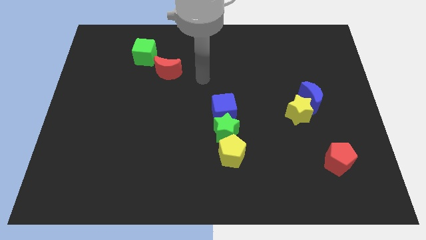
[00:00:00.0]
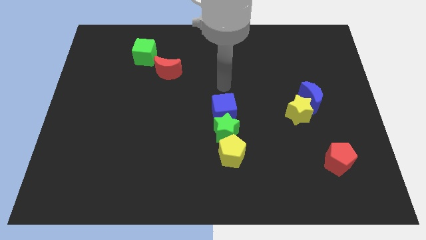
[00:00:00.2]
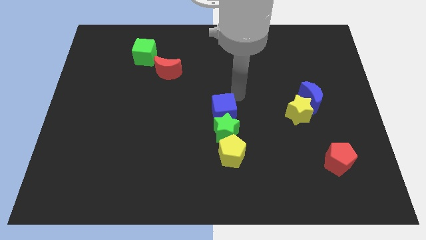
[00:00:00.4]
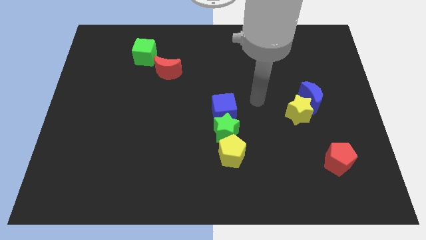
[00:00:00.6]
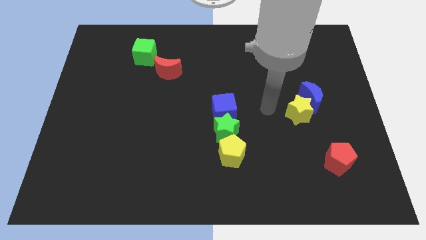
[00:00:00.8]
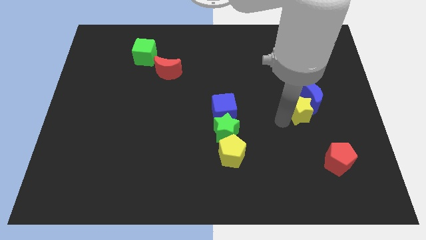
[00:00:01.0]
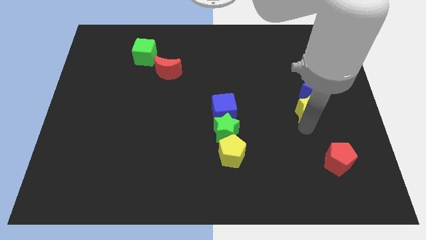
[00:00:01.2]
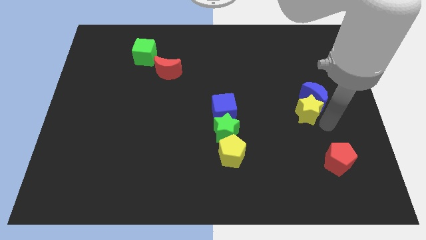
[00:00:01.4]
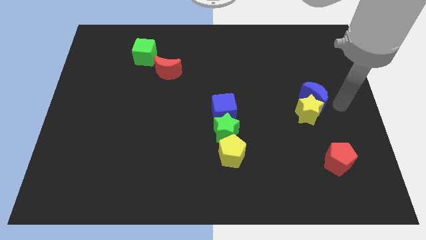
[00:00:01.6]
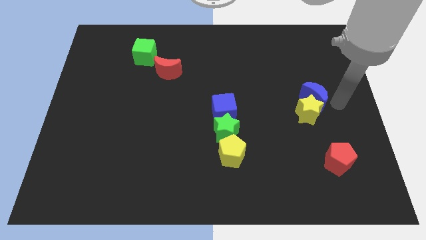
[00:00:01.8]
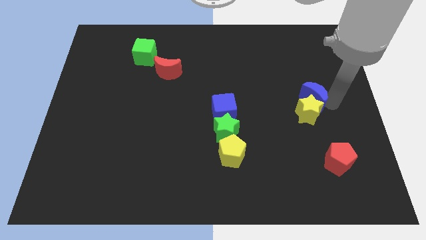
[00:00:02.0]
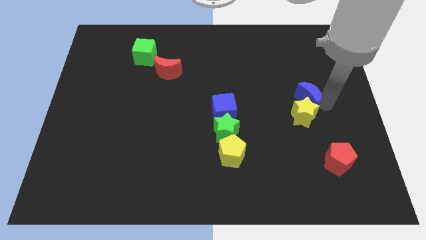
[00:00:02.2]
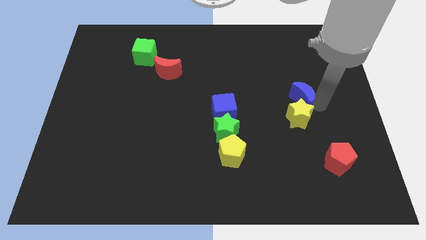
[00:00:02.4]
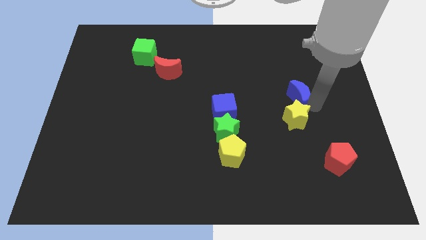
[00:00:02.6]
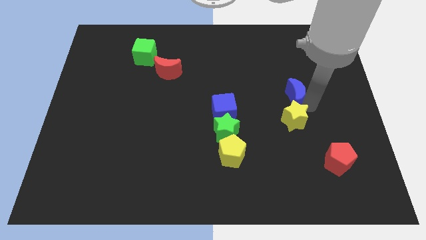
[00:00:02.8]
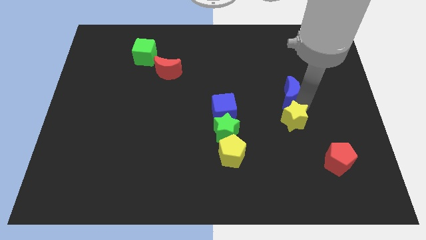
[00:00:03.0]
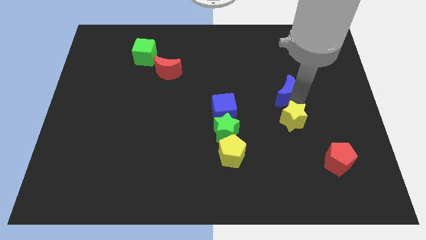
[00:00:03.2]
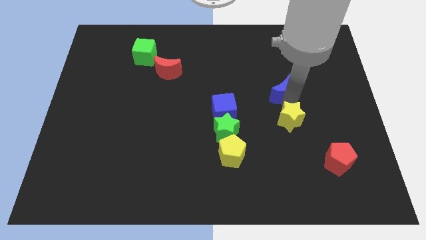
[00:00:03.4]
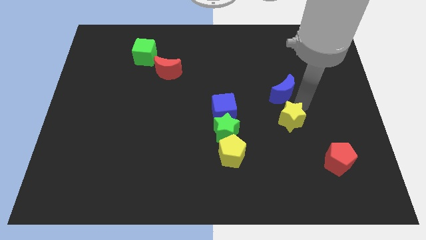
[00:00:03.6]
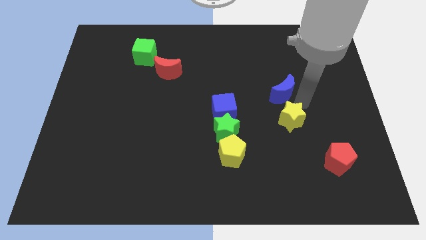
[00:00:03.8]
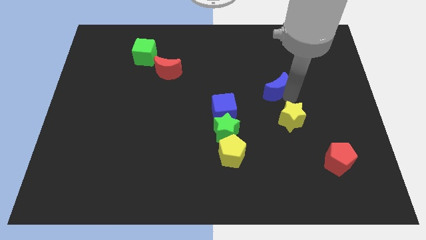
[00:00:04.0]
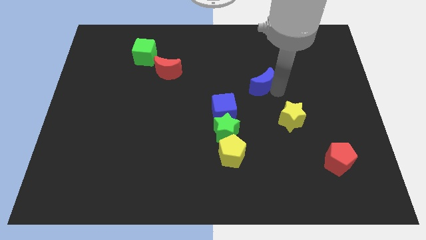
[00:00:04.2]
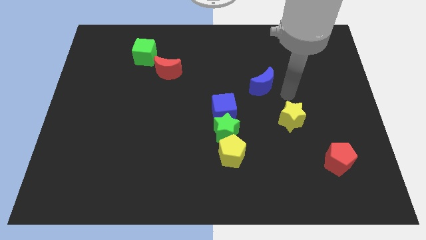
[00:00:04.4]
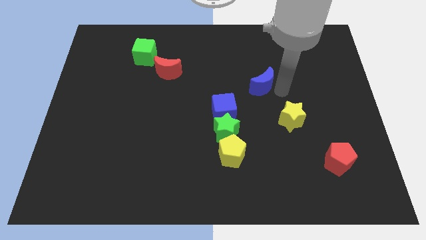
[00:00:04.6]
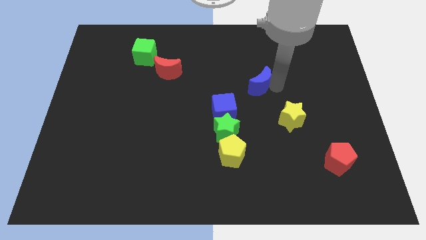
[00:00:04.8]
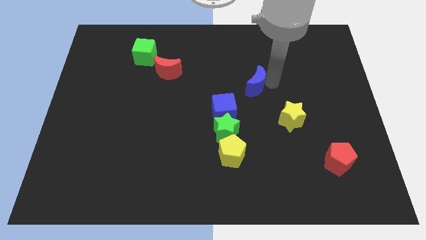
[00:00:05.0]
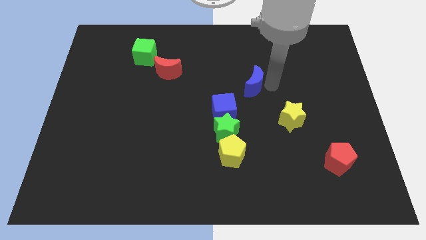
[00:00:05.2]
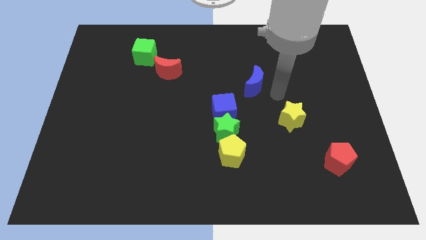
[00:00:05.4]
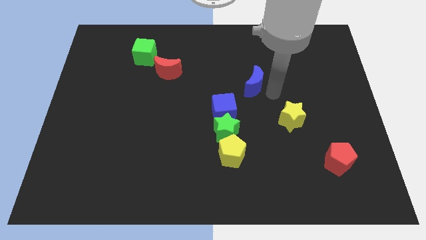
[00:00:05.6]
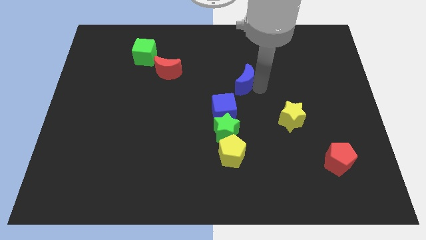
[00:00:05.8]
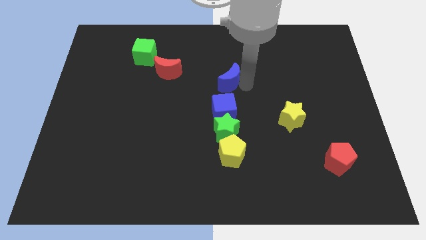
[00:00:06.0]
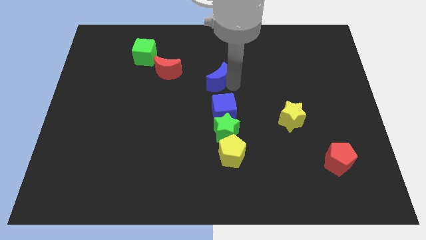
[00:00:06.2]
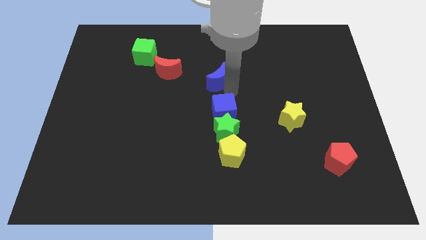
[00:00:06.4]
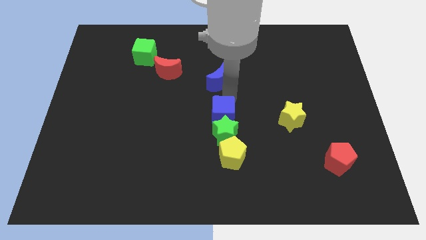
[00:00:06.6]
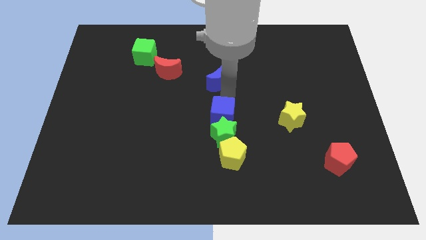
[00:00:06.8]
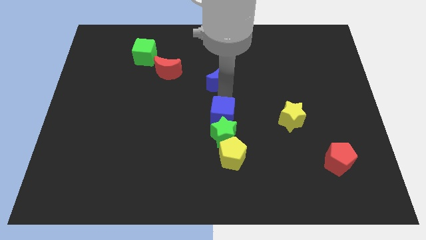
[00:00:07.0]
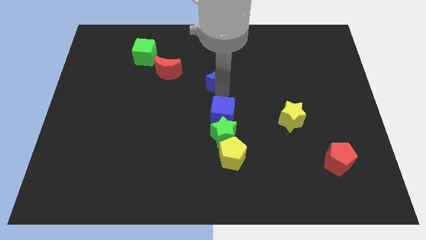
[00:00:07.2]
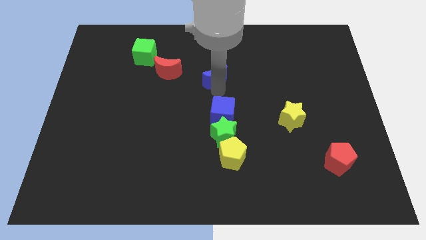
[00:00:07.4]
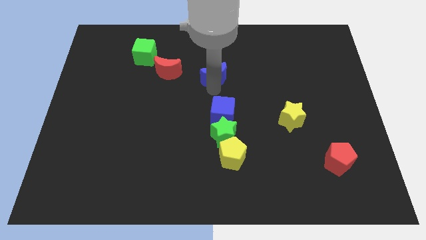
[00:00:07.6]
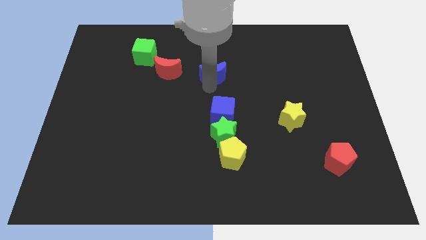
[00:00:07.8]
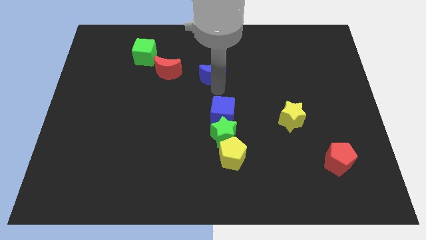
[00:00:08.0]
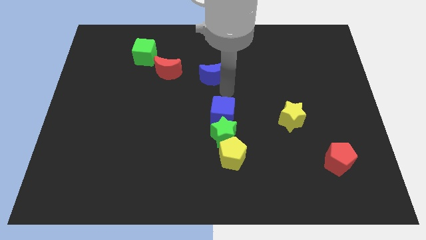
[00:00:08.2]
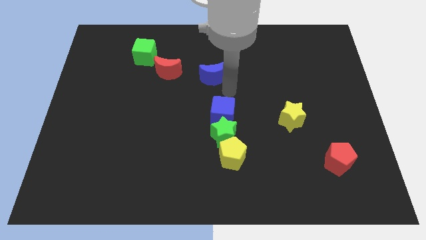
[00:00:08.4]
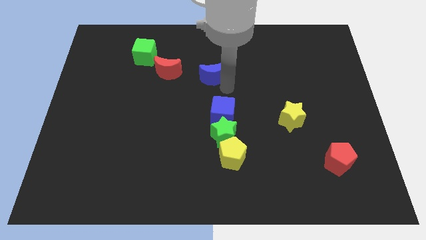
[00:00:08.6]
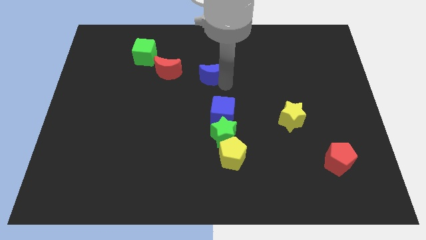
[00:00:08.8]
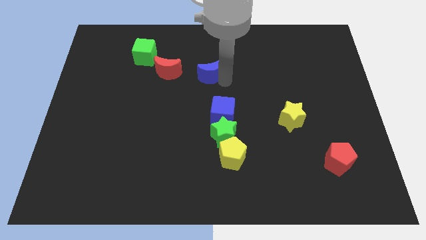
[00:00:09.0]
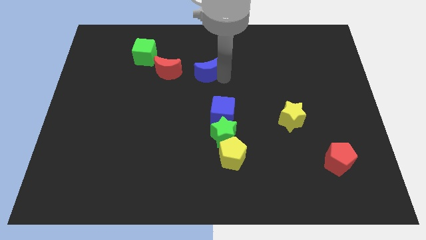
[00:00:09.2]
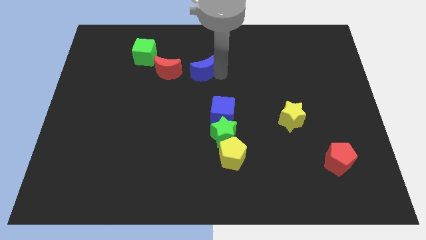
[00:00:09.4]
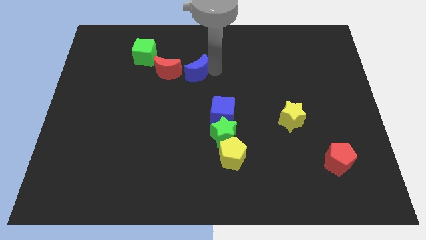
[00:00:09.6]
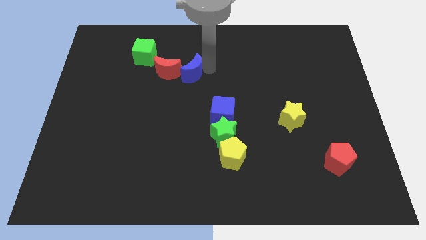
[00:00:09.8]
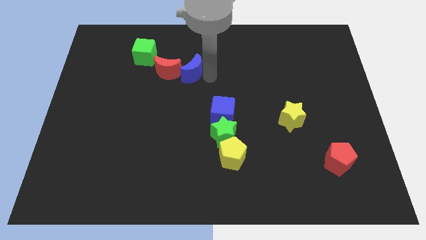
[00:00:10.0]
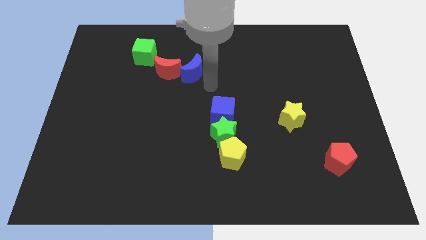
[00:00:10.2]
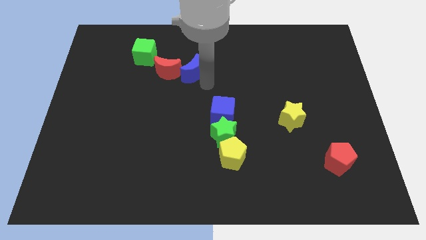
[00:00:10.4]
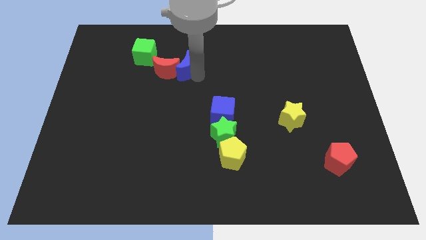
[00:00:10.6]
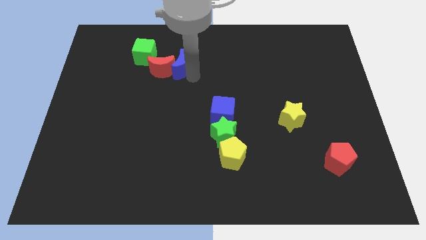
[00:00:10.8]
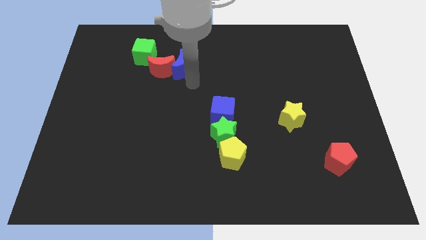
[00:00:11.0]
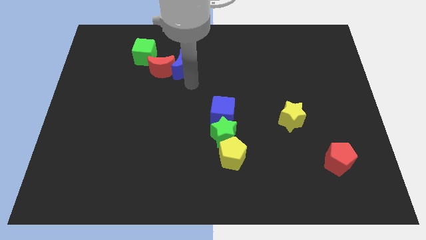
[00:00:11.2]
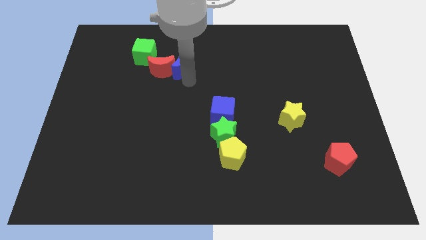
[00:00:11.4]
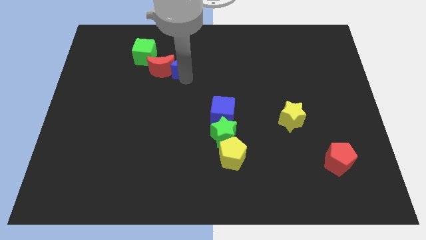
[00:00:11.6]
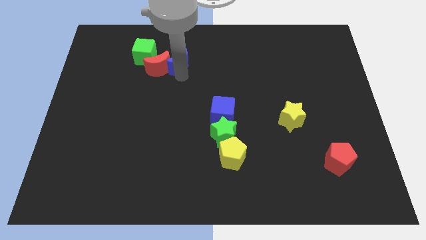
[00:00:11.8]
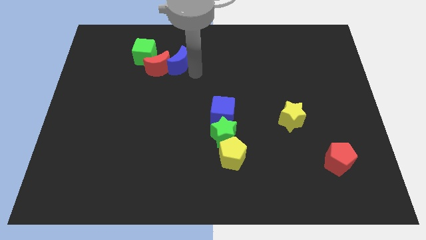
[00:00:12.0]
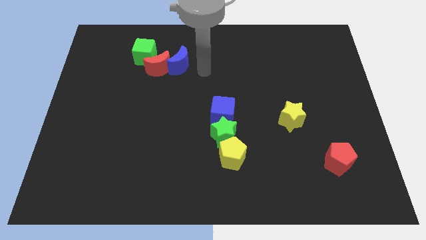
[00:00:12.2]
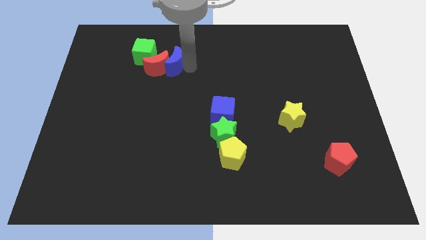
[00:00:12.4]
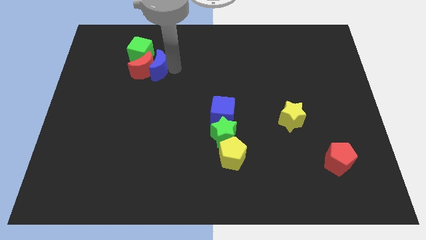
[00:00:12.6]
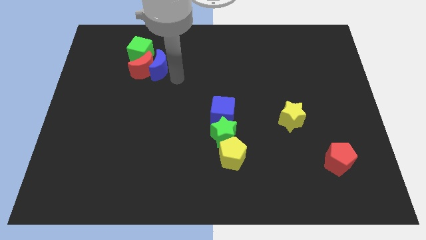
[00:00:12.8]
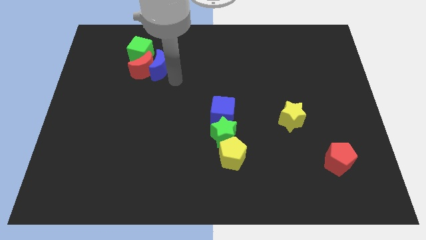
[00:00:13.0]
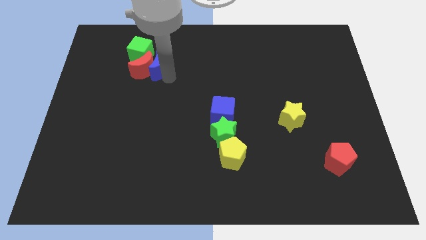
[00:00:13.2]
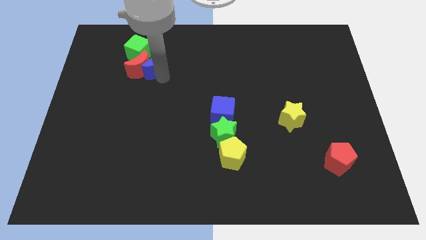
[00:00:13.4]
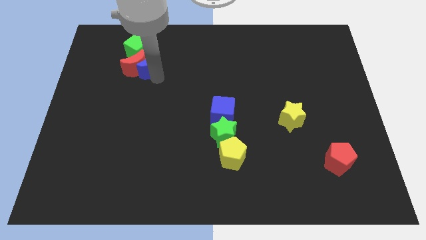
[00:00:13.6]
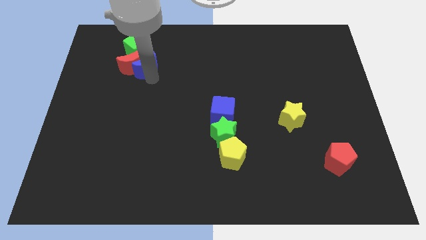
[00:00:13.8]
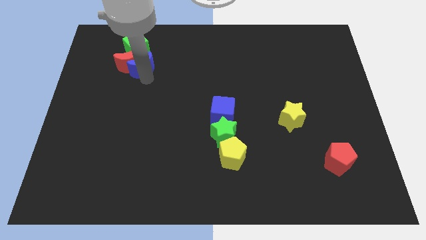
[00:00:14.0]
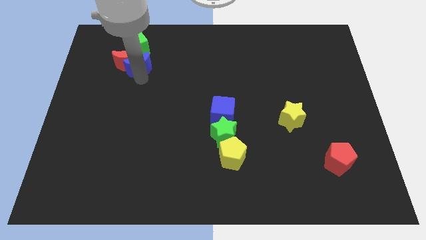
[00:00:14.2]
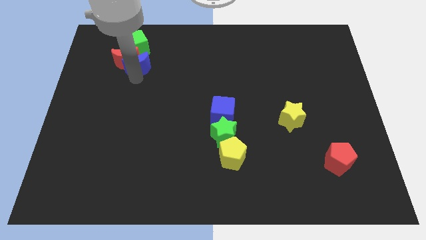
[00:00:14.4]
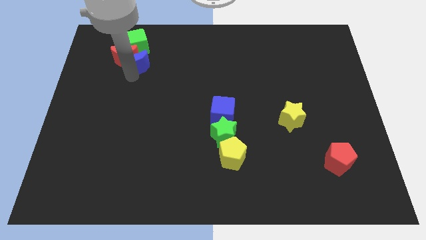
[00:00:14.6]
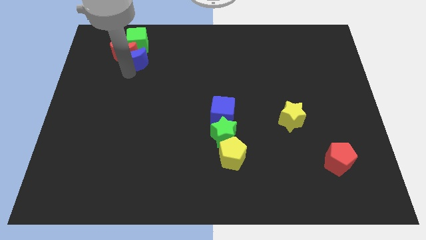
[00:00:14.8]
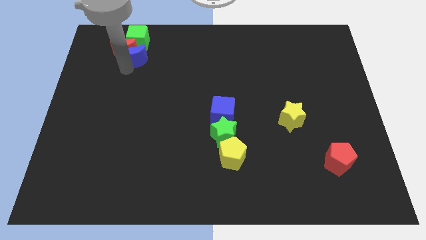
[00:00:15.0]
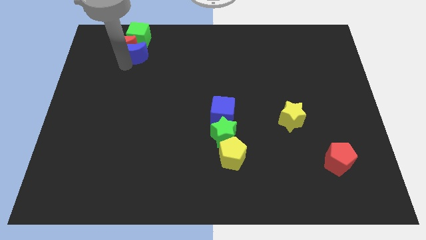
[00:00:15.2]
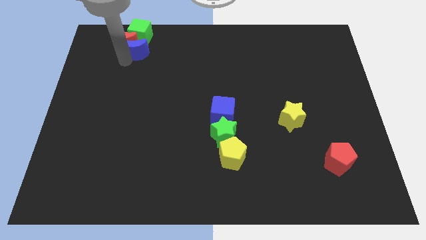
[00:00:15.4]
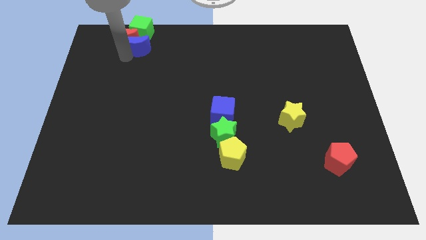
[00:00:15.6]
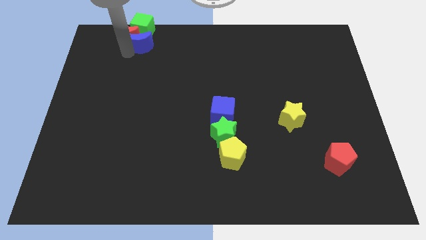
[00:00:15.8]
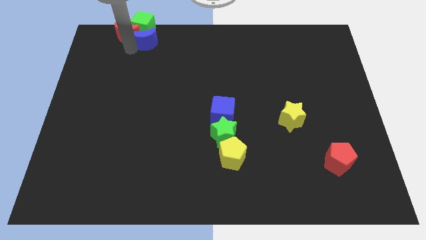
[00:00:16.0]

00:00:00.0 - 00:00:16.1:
slide the blue moon close to the green cube
